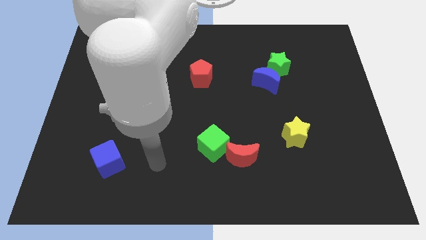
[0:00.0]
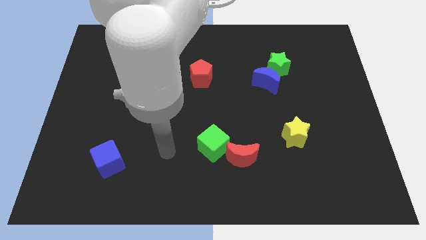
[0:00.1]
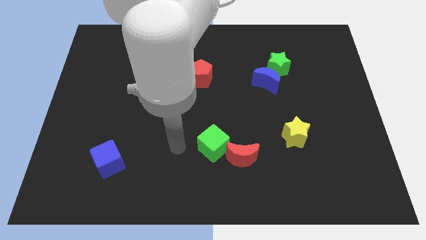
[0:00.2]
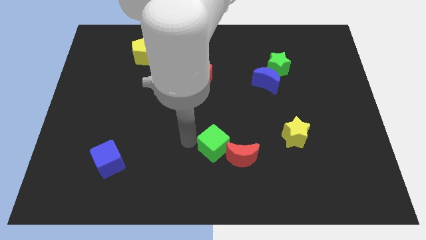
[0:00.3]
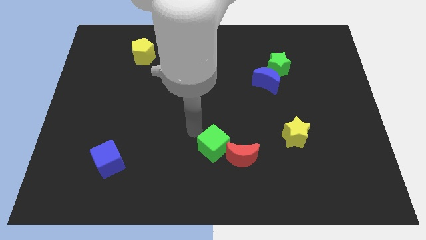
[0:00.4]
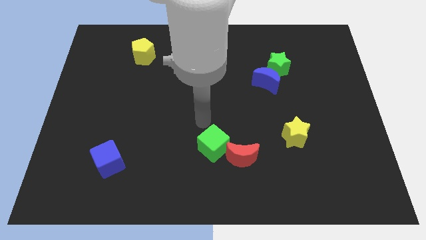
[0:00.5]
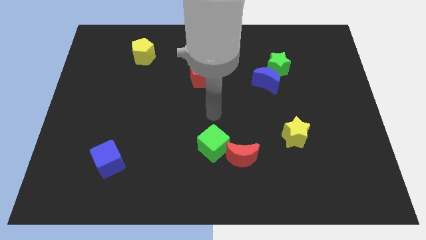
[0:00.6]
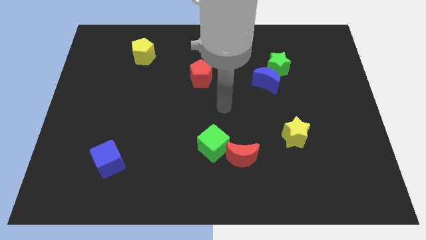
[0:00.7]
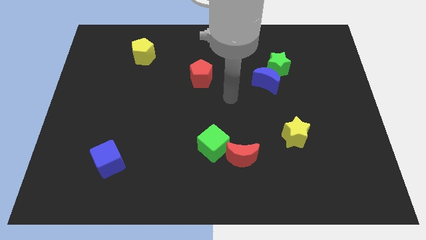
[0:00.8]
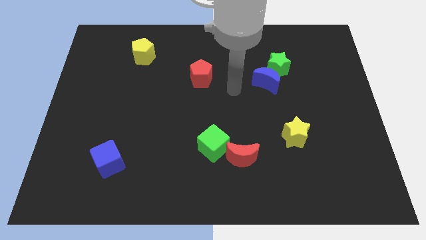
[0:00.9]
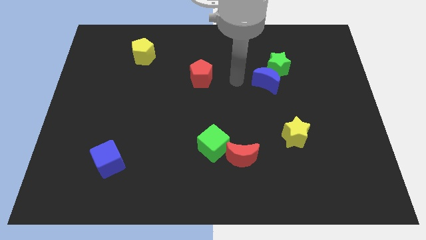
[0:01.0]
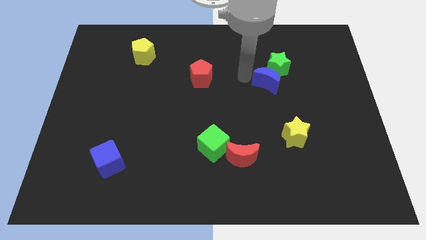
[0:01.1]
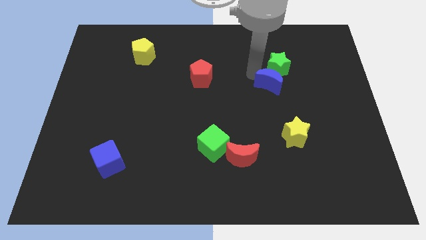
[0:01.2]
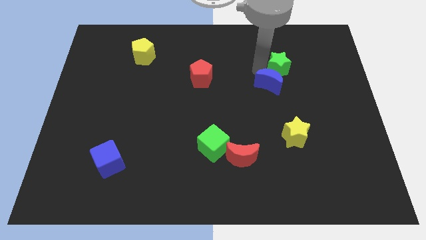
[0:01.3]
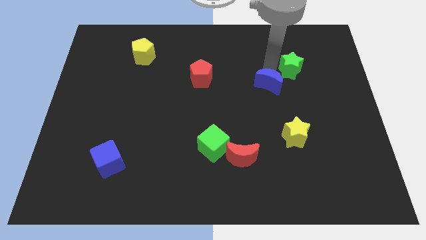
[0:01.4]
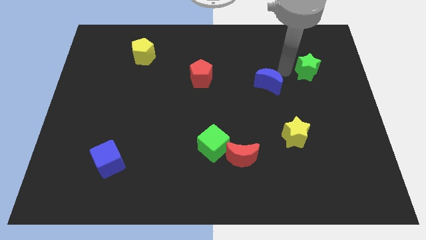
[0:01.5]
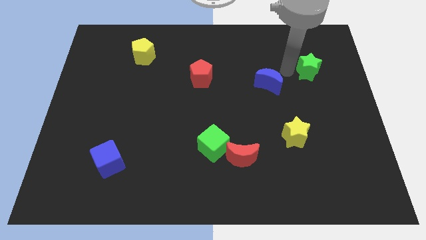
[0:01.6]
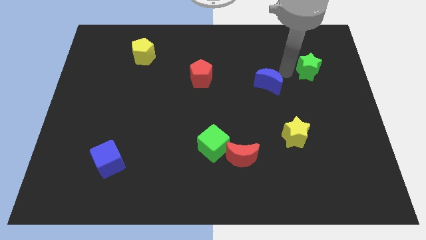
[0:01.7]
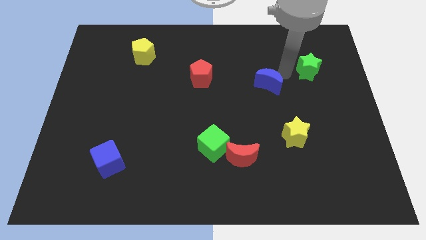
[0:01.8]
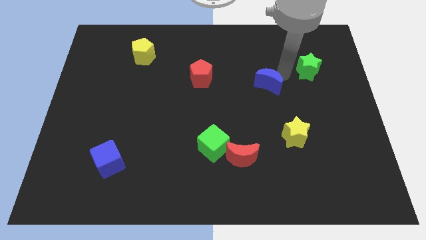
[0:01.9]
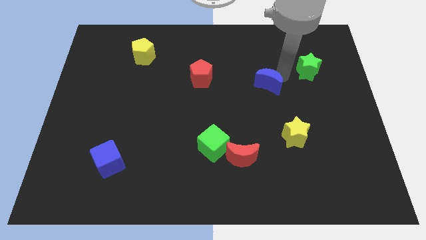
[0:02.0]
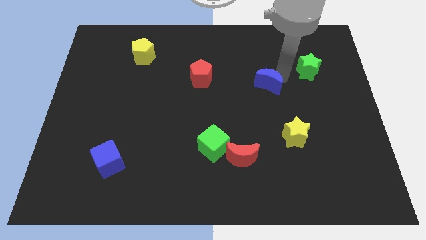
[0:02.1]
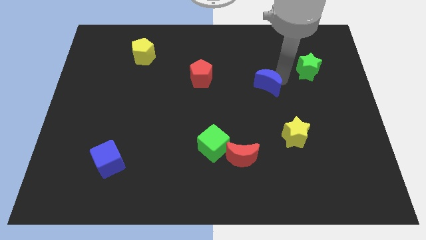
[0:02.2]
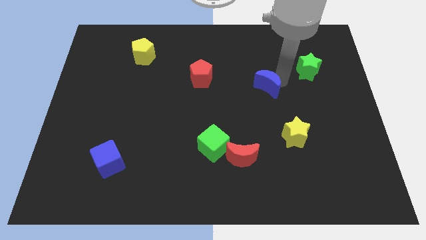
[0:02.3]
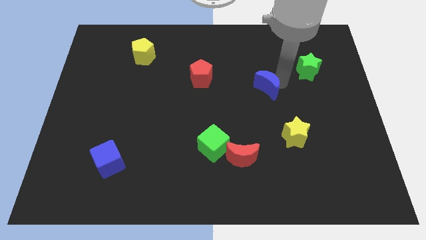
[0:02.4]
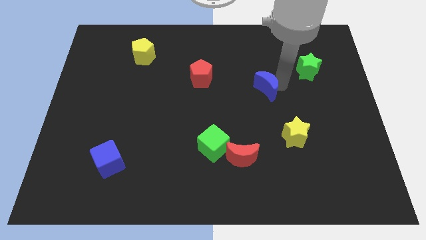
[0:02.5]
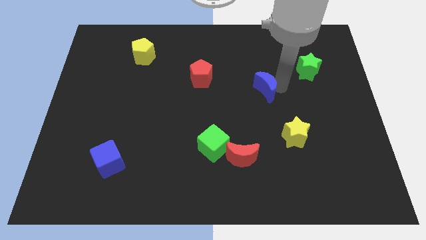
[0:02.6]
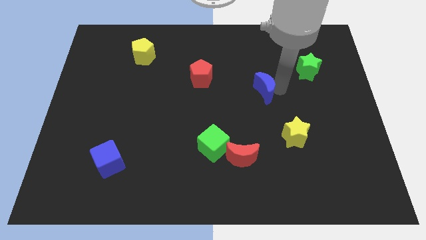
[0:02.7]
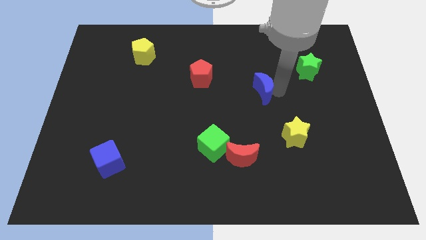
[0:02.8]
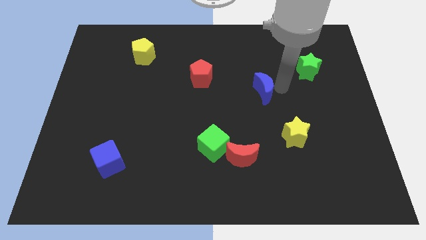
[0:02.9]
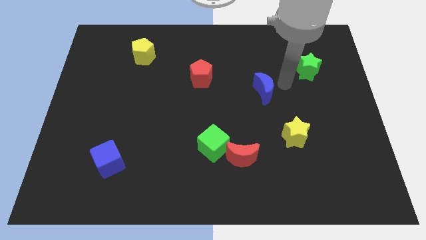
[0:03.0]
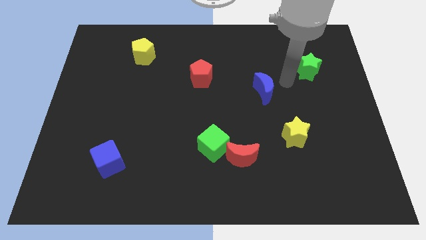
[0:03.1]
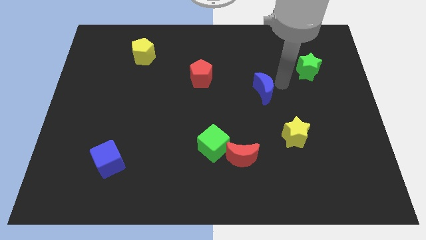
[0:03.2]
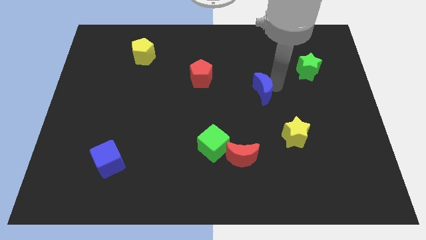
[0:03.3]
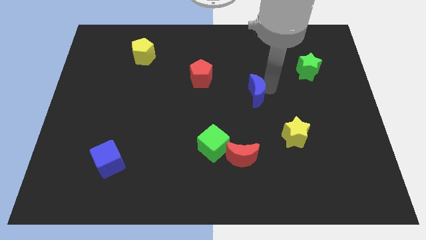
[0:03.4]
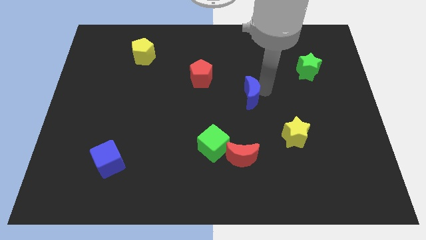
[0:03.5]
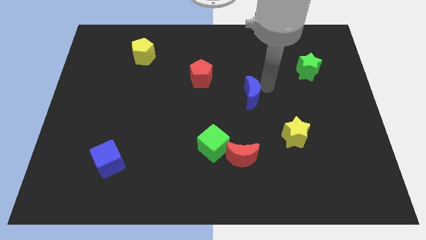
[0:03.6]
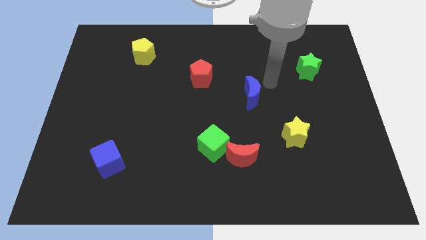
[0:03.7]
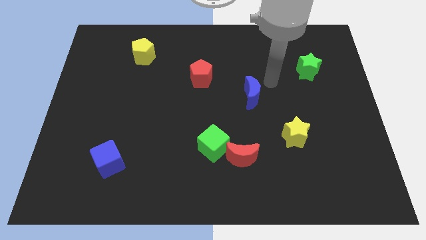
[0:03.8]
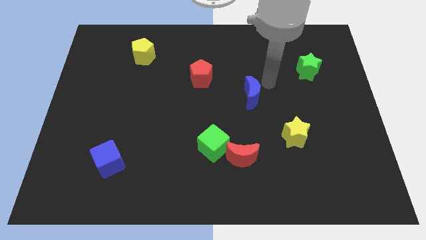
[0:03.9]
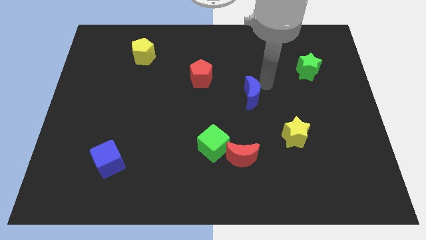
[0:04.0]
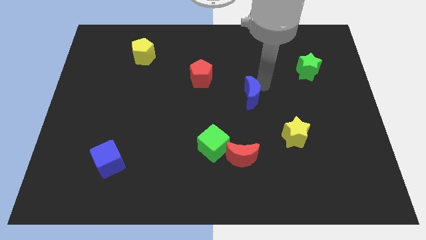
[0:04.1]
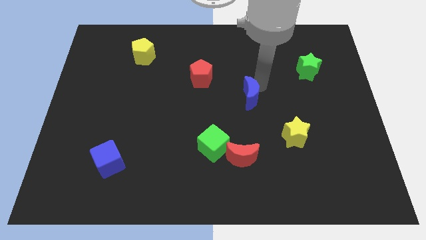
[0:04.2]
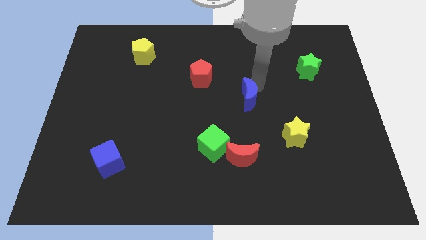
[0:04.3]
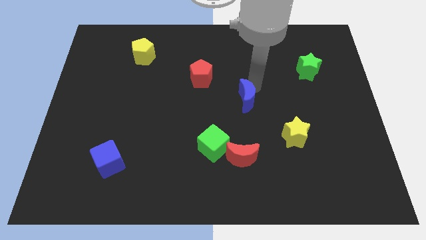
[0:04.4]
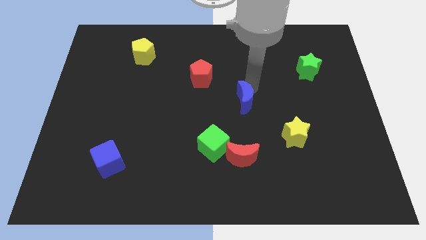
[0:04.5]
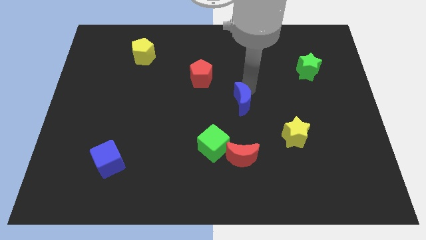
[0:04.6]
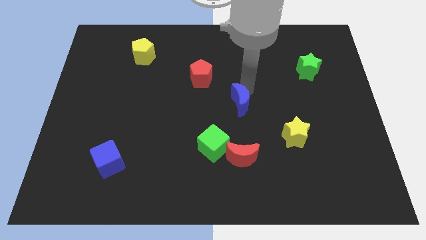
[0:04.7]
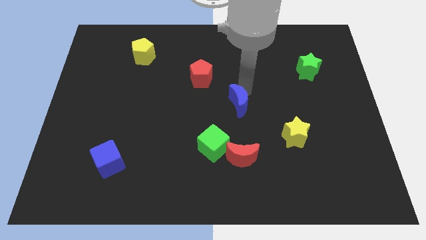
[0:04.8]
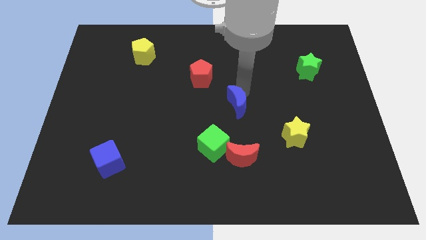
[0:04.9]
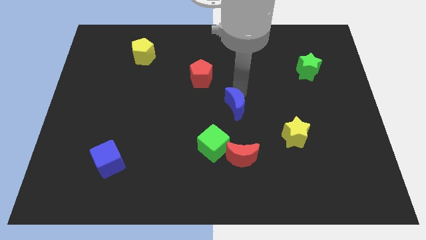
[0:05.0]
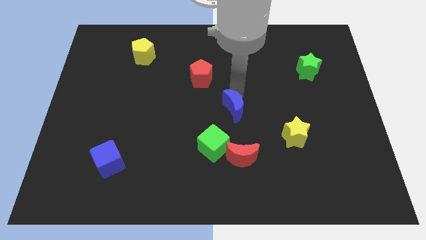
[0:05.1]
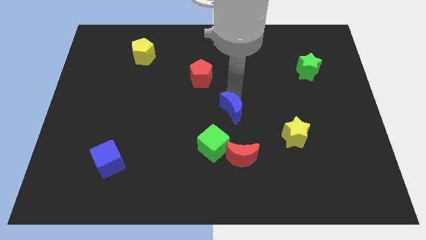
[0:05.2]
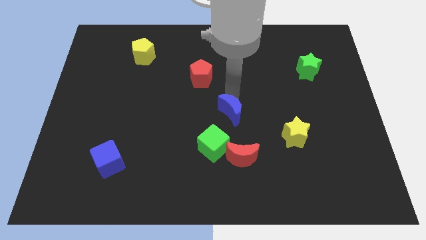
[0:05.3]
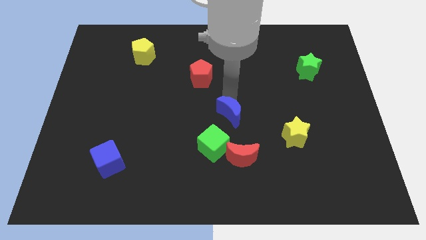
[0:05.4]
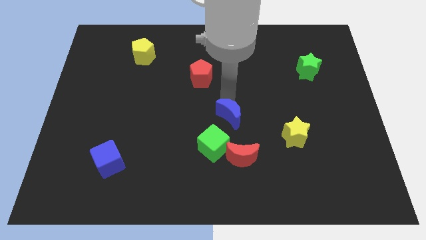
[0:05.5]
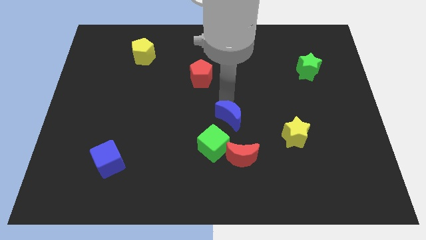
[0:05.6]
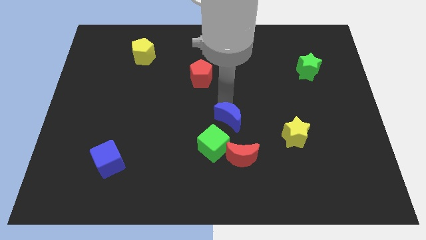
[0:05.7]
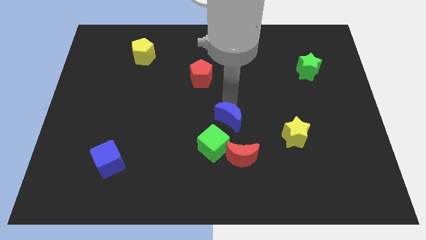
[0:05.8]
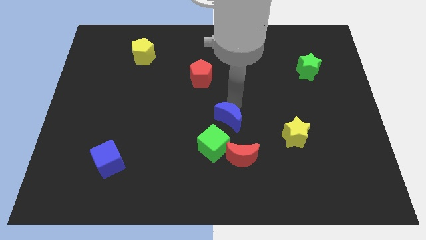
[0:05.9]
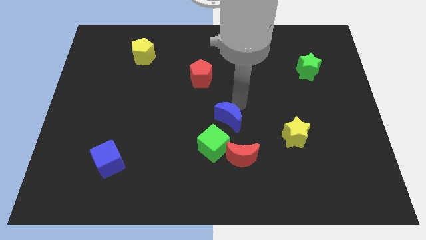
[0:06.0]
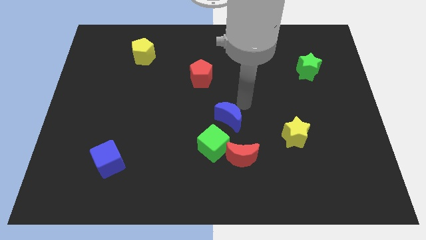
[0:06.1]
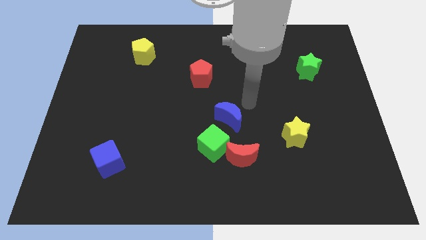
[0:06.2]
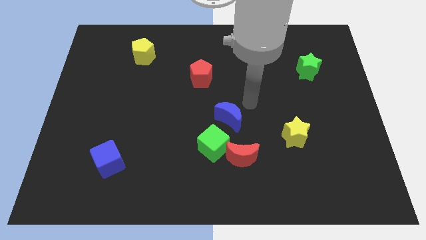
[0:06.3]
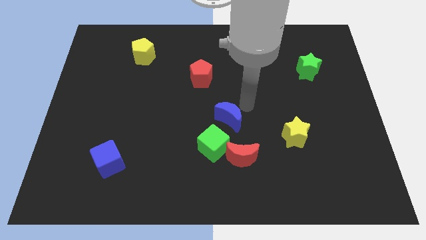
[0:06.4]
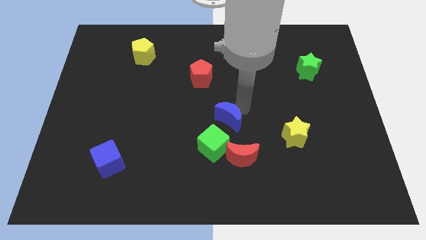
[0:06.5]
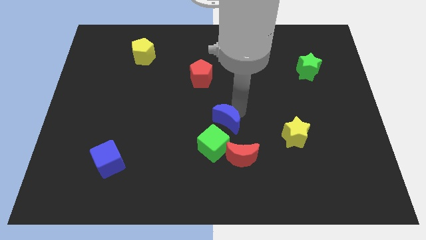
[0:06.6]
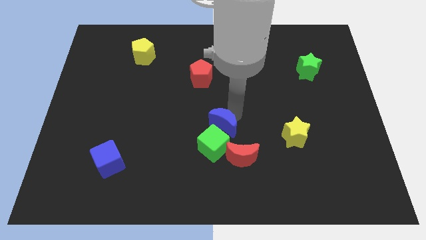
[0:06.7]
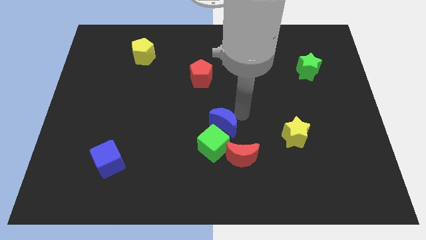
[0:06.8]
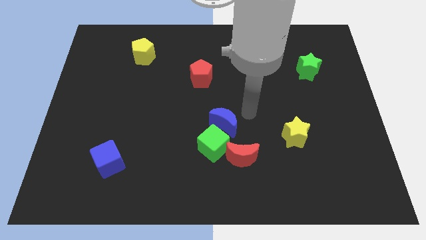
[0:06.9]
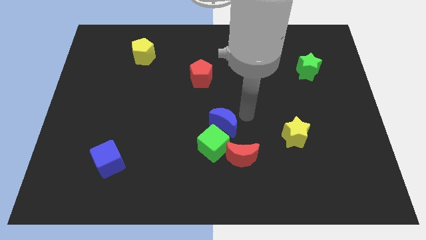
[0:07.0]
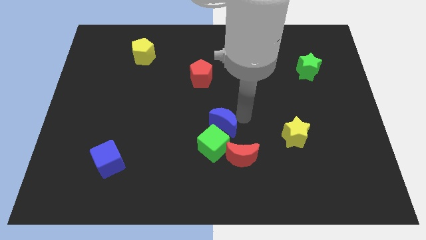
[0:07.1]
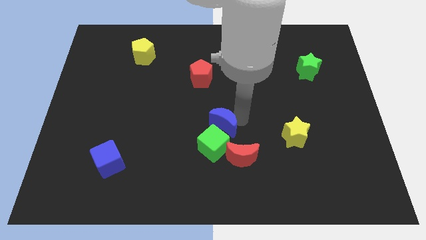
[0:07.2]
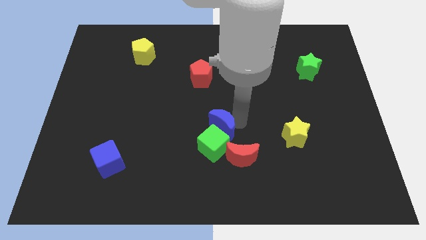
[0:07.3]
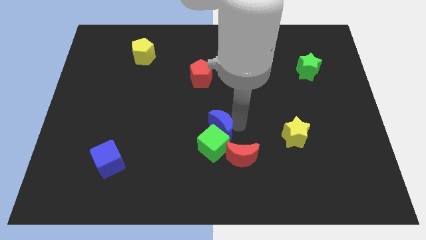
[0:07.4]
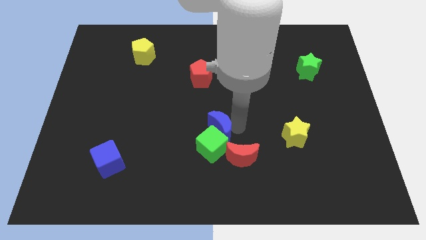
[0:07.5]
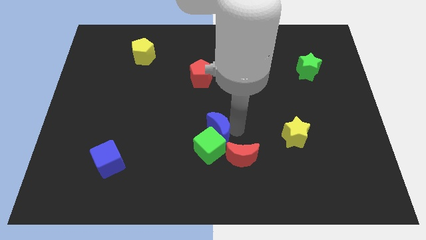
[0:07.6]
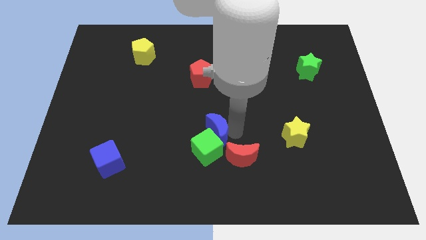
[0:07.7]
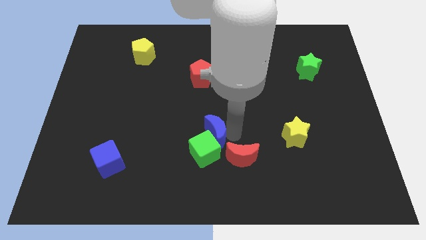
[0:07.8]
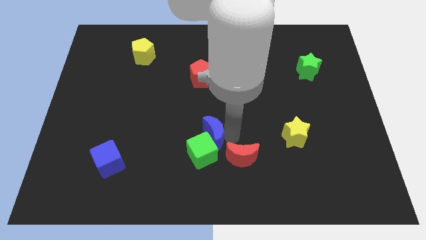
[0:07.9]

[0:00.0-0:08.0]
move the blue moon diagonally down and to the left
